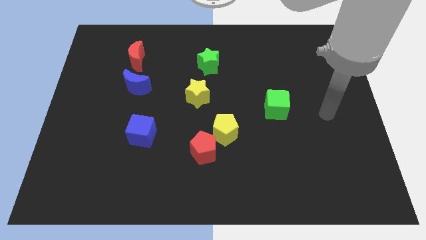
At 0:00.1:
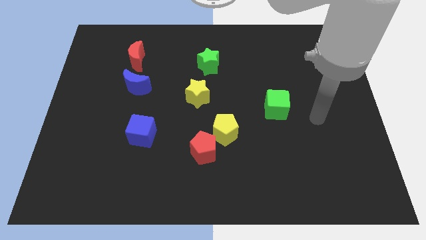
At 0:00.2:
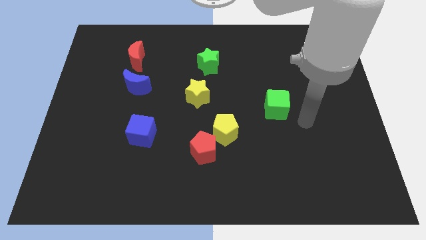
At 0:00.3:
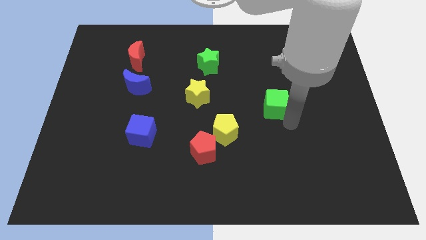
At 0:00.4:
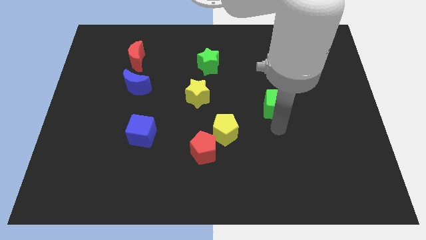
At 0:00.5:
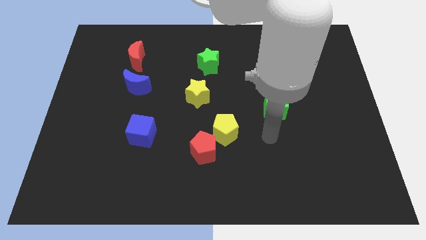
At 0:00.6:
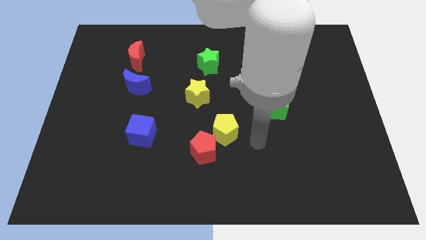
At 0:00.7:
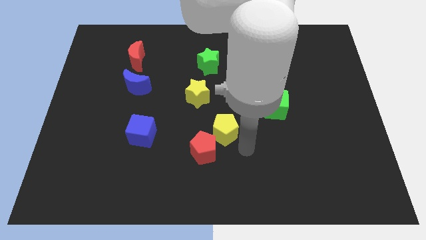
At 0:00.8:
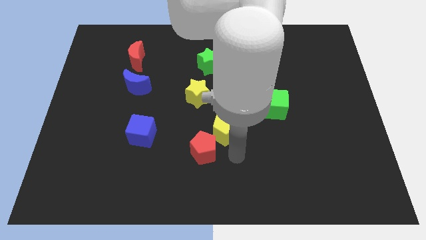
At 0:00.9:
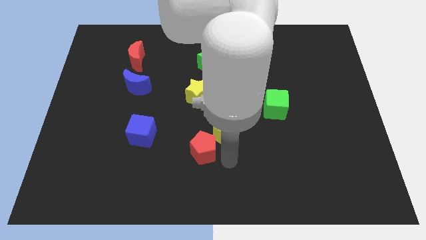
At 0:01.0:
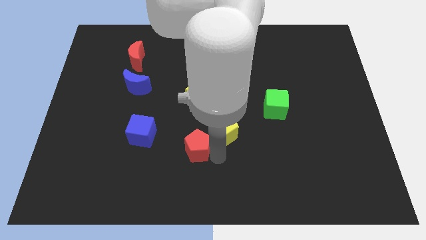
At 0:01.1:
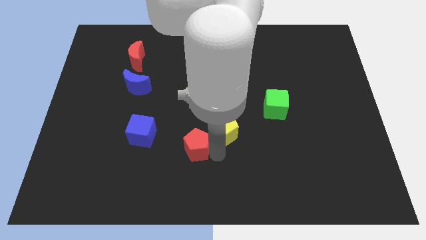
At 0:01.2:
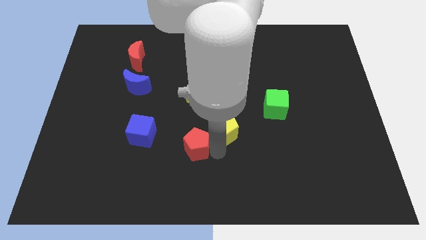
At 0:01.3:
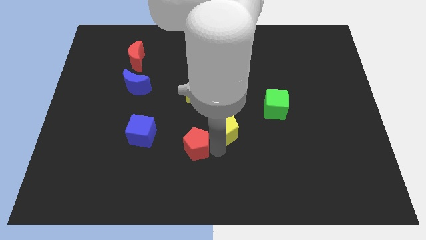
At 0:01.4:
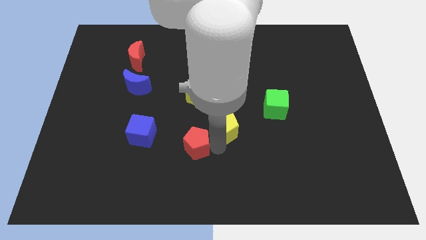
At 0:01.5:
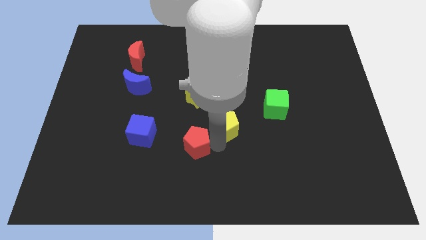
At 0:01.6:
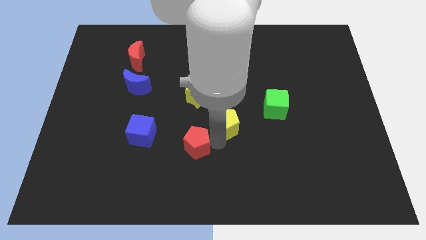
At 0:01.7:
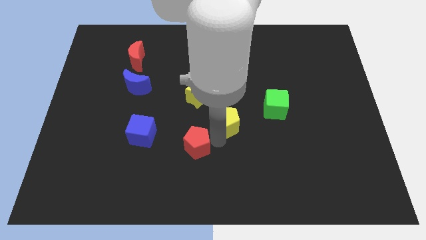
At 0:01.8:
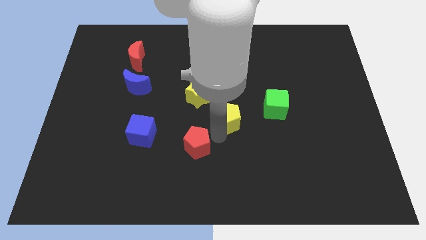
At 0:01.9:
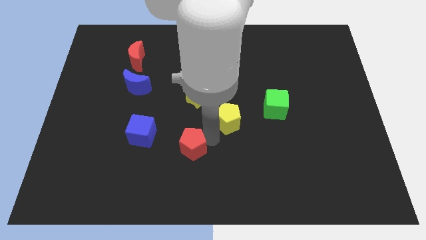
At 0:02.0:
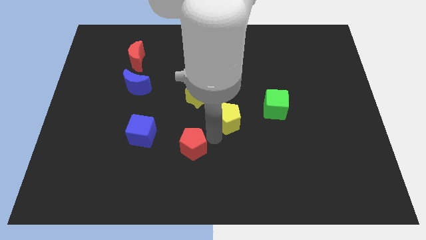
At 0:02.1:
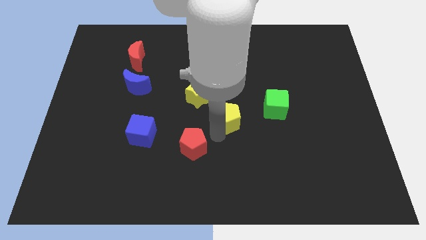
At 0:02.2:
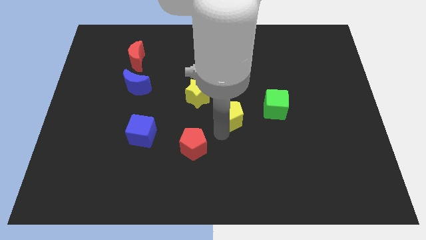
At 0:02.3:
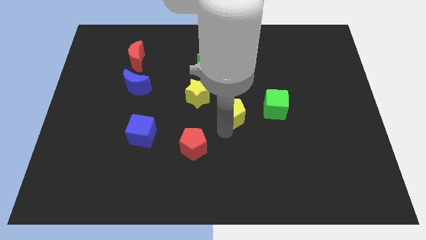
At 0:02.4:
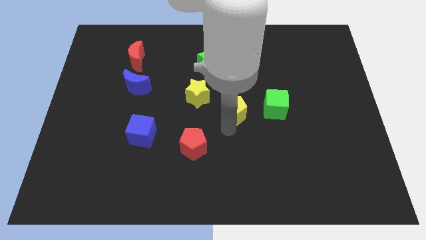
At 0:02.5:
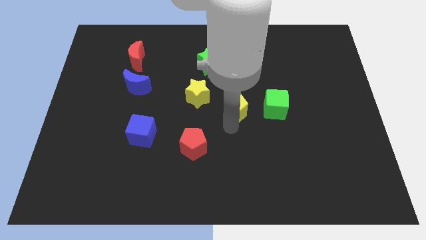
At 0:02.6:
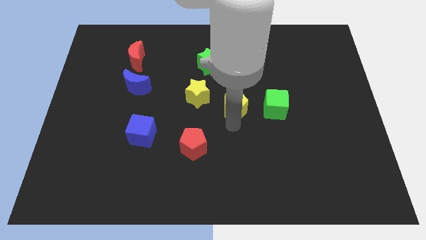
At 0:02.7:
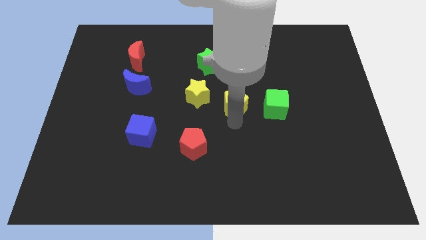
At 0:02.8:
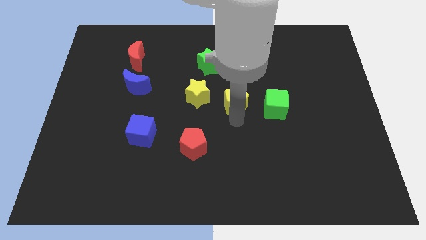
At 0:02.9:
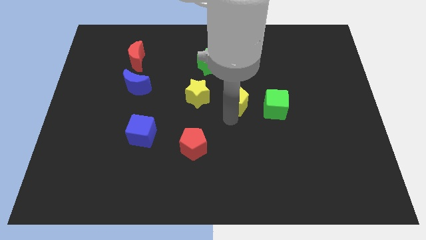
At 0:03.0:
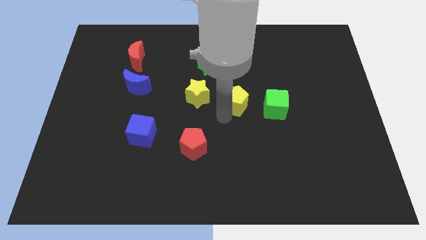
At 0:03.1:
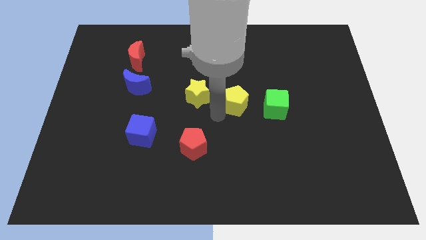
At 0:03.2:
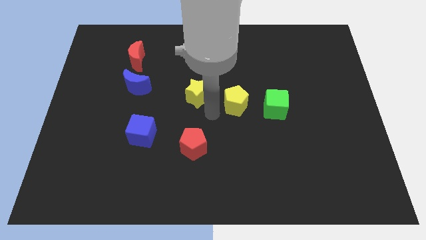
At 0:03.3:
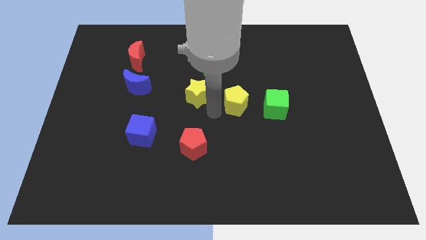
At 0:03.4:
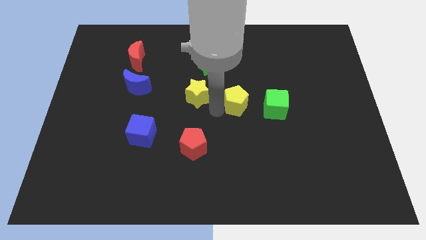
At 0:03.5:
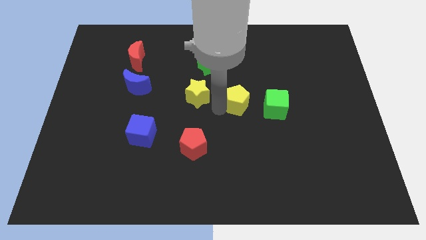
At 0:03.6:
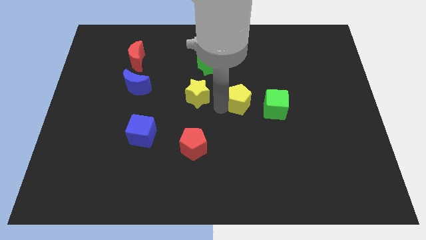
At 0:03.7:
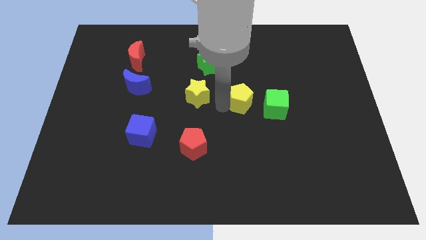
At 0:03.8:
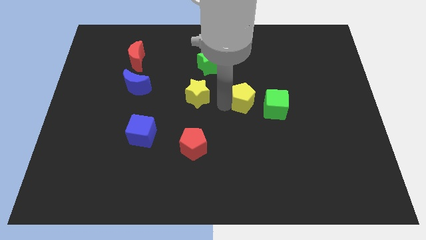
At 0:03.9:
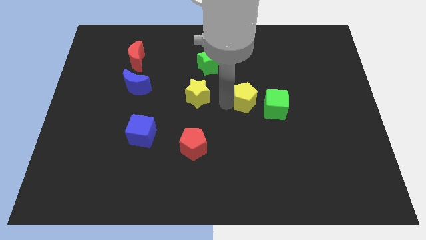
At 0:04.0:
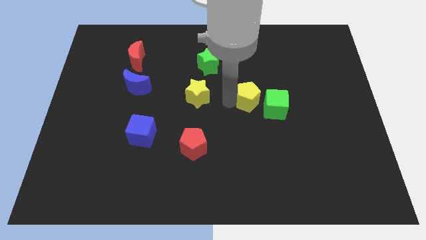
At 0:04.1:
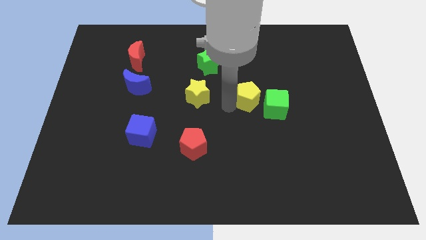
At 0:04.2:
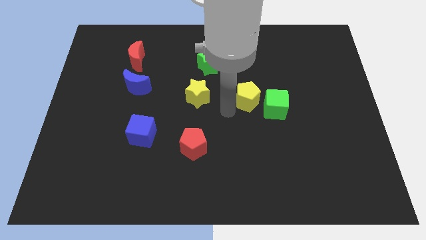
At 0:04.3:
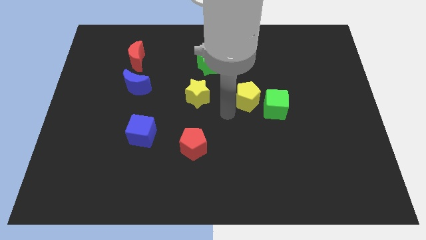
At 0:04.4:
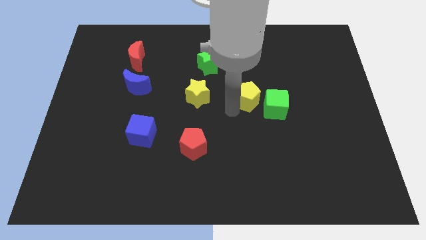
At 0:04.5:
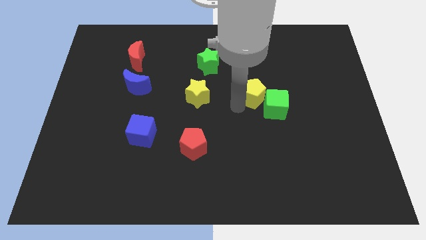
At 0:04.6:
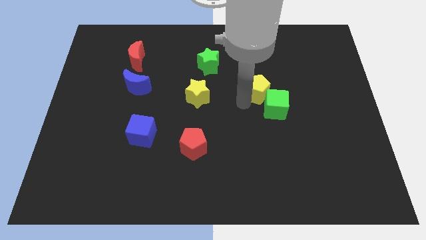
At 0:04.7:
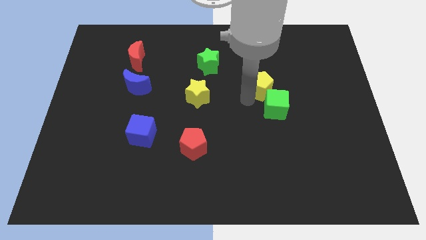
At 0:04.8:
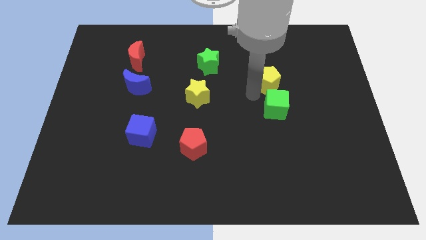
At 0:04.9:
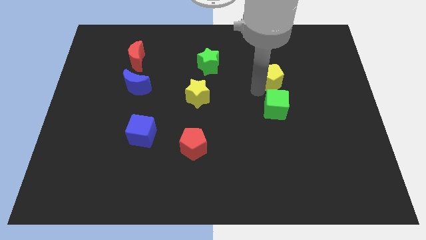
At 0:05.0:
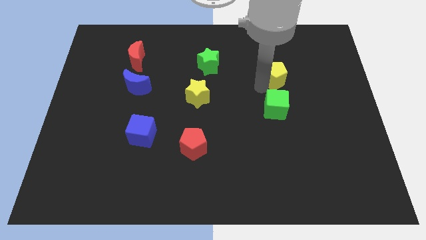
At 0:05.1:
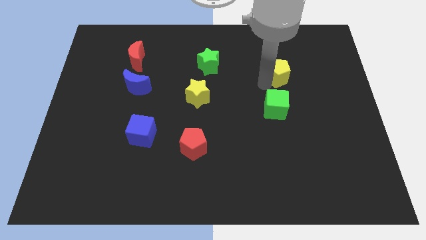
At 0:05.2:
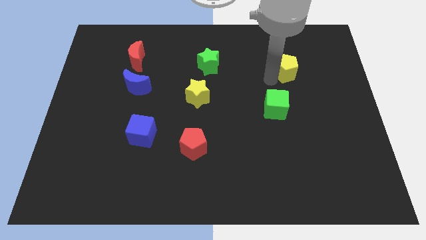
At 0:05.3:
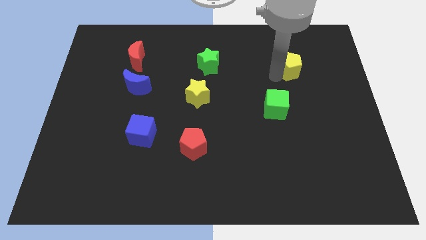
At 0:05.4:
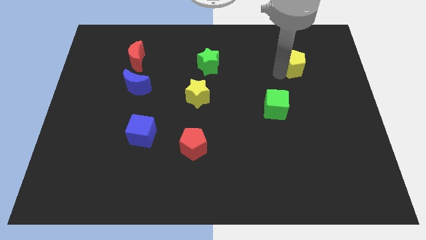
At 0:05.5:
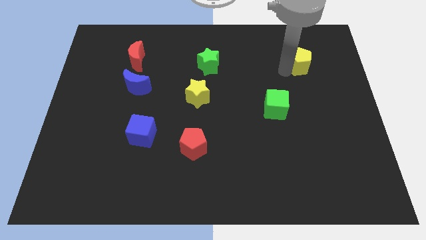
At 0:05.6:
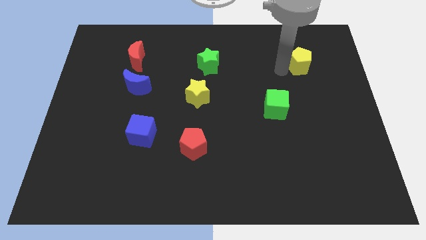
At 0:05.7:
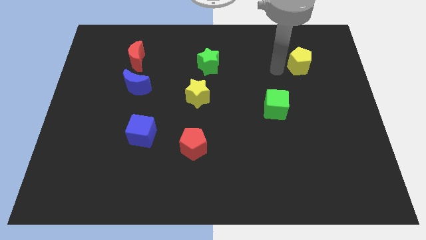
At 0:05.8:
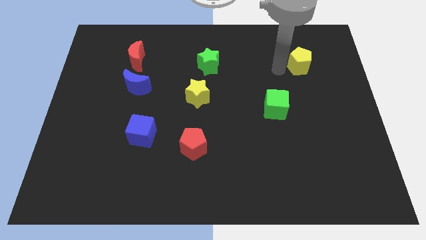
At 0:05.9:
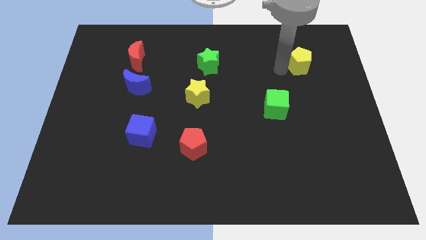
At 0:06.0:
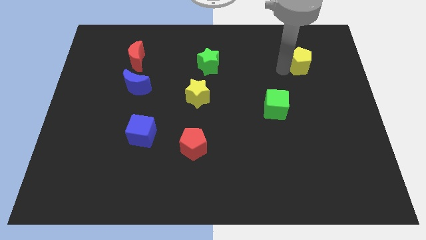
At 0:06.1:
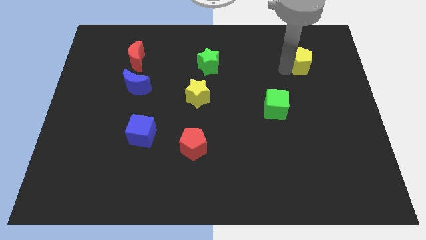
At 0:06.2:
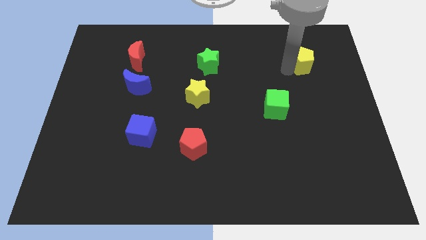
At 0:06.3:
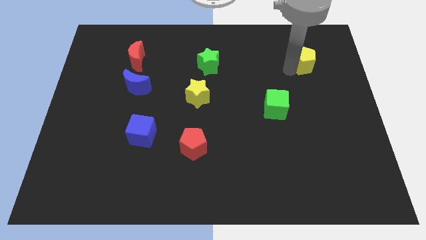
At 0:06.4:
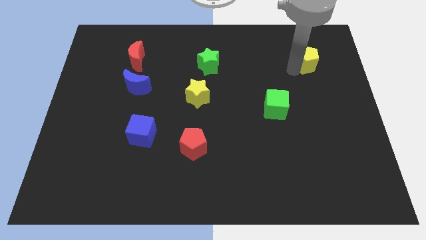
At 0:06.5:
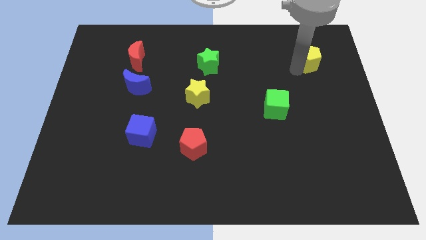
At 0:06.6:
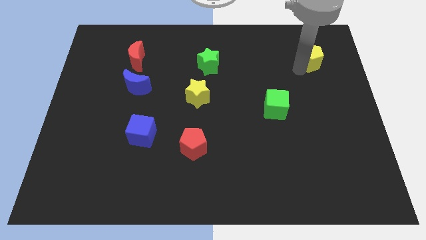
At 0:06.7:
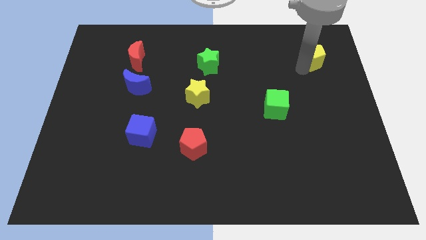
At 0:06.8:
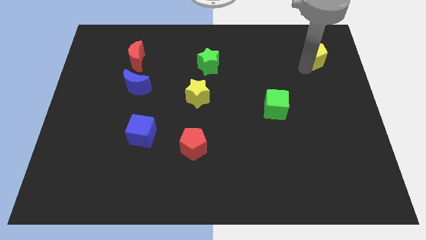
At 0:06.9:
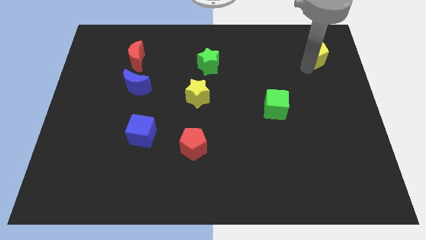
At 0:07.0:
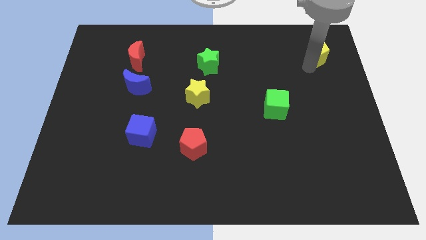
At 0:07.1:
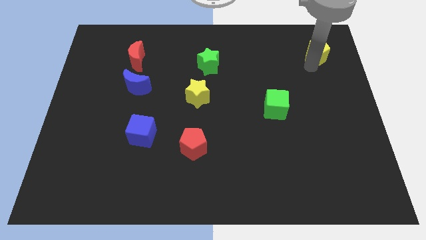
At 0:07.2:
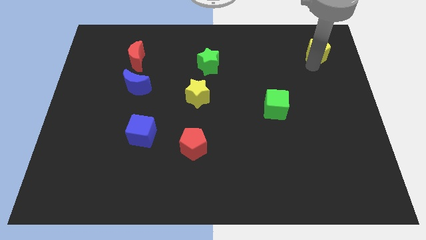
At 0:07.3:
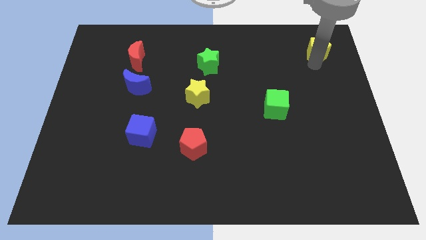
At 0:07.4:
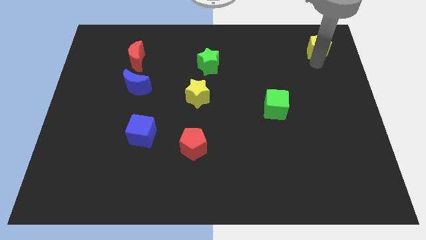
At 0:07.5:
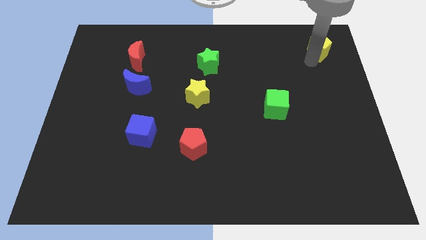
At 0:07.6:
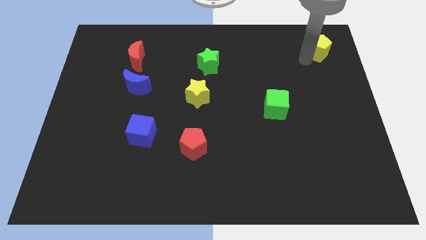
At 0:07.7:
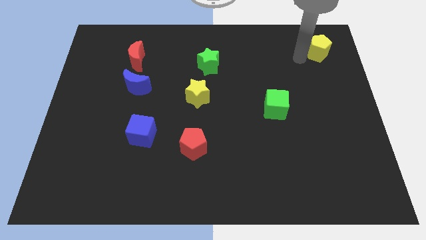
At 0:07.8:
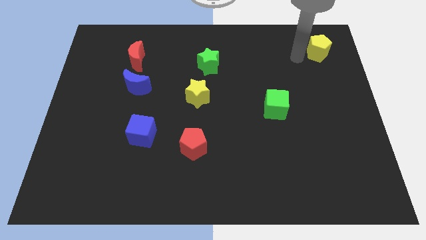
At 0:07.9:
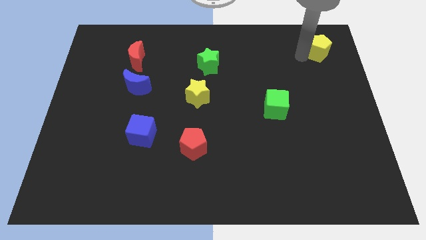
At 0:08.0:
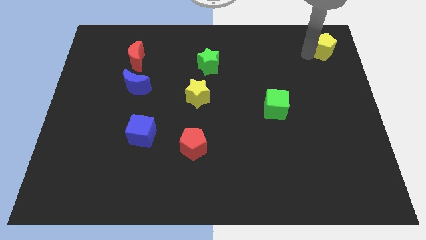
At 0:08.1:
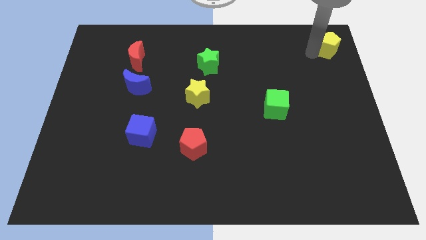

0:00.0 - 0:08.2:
push the yellow pentagon to the top right corner
